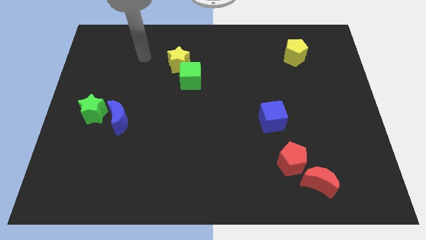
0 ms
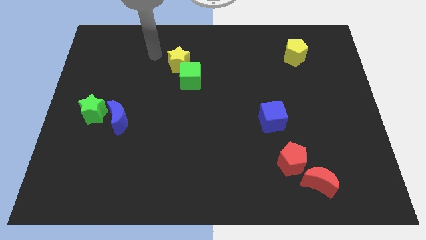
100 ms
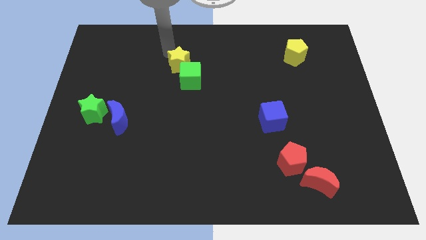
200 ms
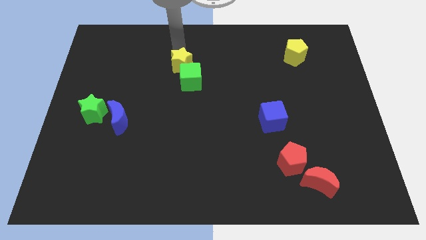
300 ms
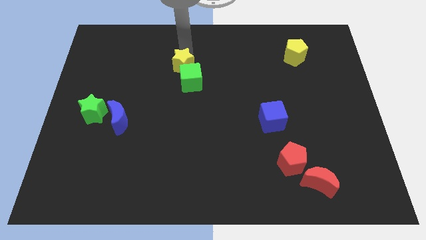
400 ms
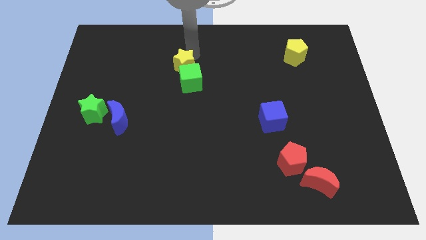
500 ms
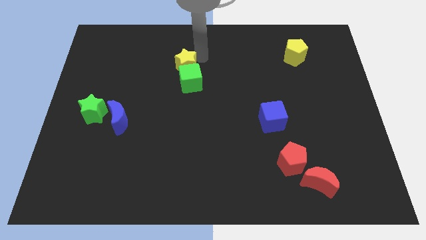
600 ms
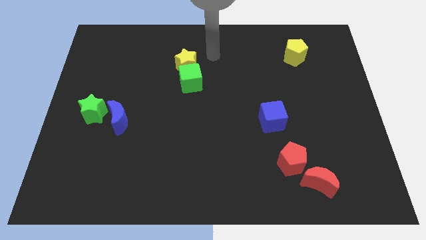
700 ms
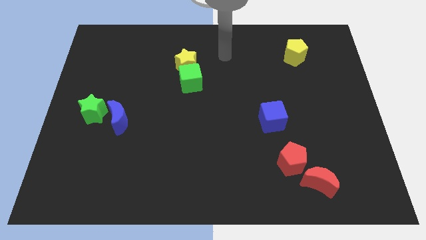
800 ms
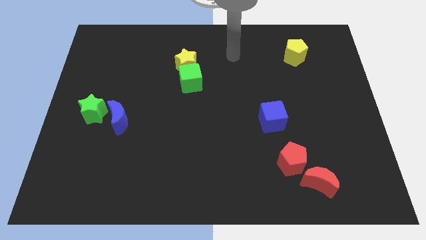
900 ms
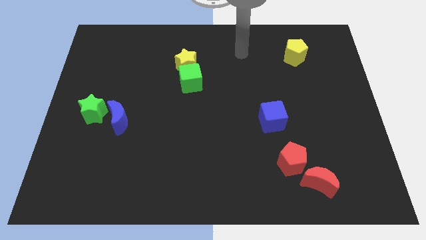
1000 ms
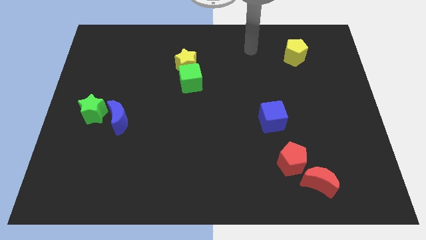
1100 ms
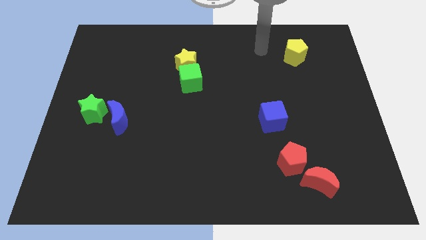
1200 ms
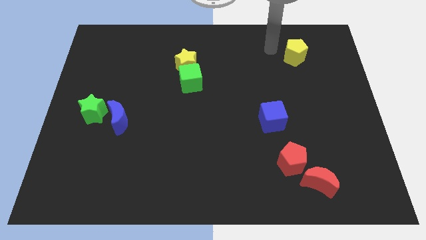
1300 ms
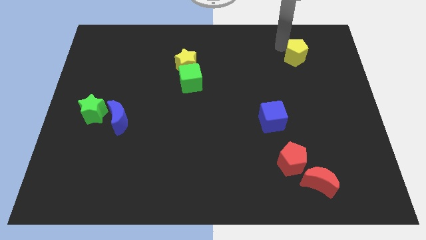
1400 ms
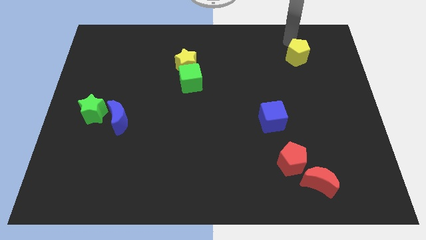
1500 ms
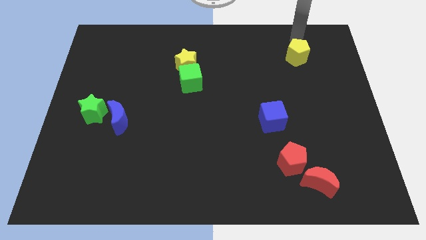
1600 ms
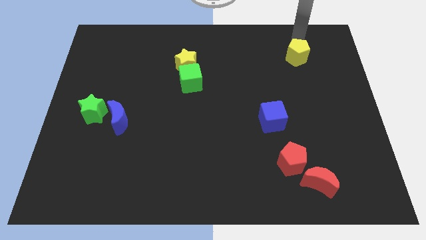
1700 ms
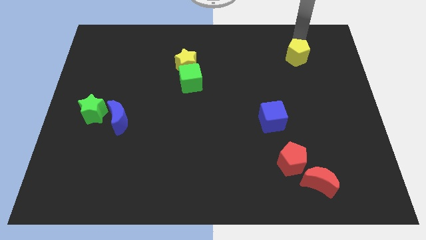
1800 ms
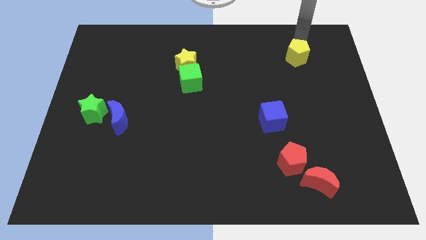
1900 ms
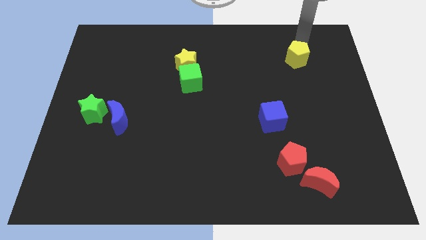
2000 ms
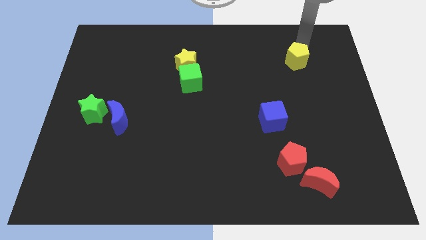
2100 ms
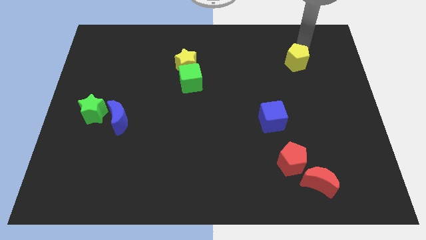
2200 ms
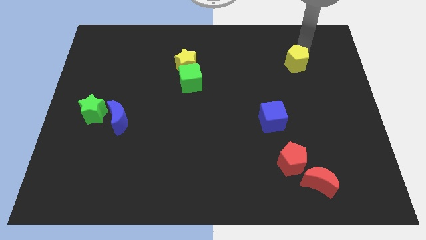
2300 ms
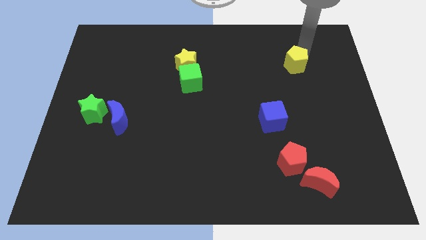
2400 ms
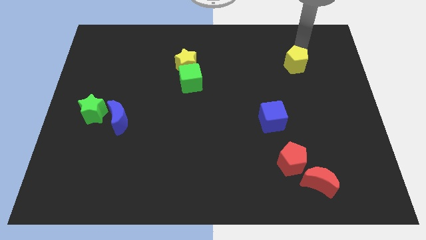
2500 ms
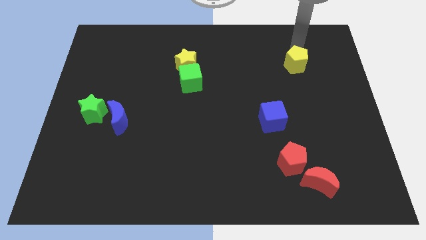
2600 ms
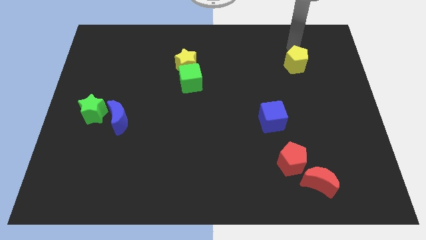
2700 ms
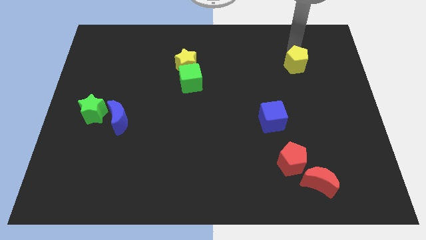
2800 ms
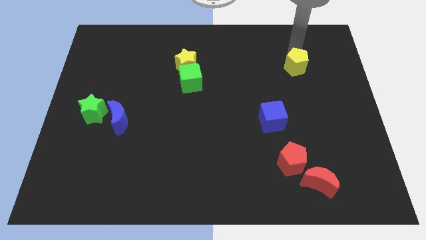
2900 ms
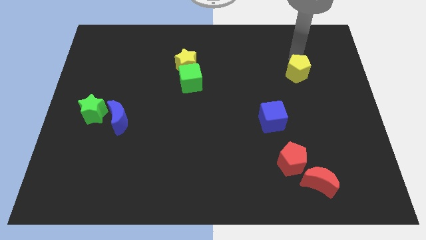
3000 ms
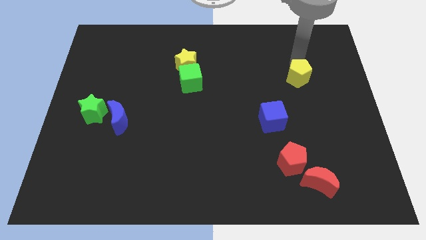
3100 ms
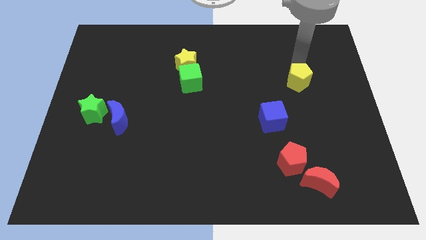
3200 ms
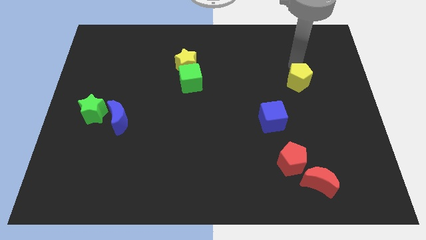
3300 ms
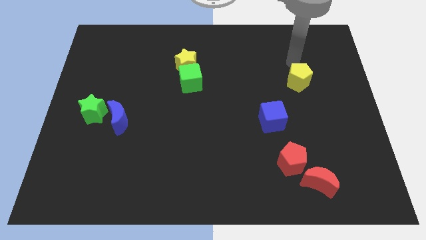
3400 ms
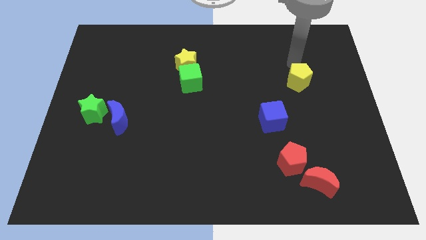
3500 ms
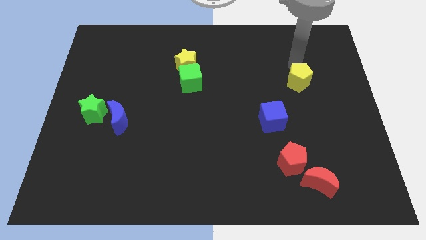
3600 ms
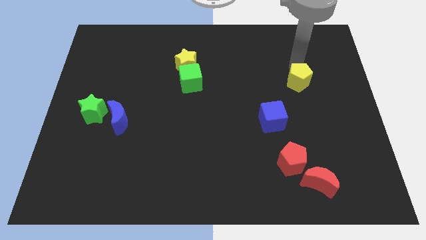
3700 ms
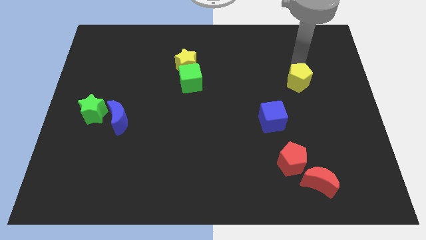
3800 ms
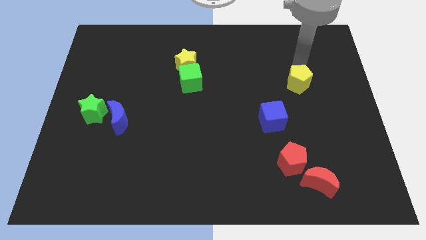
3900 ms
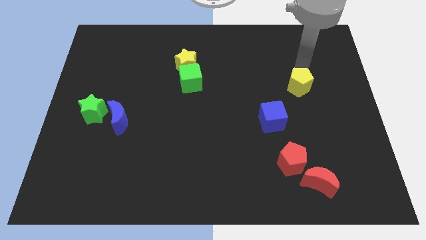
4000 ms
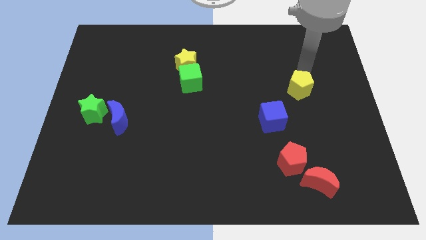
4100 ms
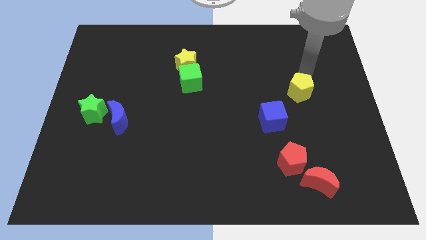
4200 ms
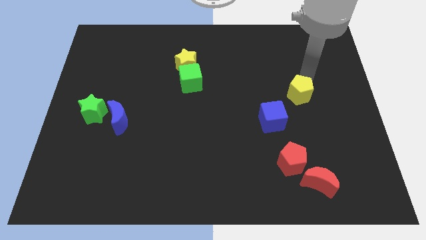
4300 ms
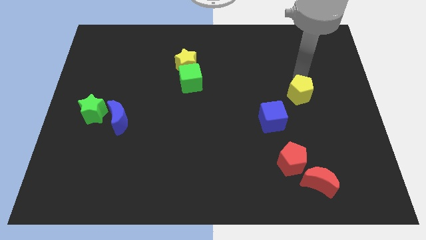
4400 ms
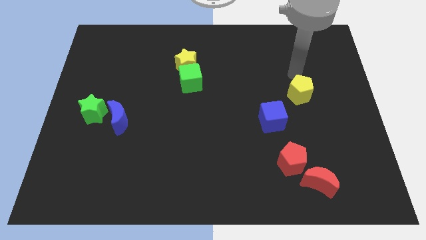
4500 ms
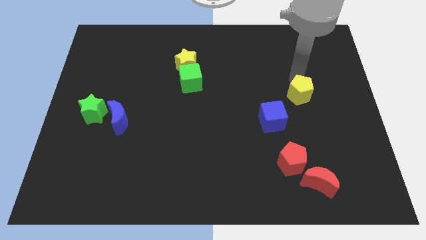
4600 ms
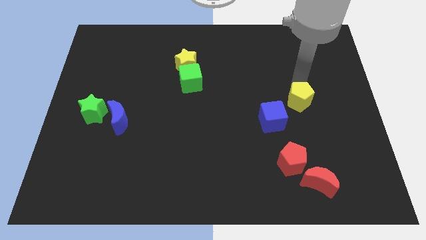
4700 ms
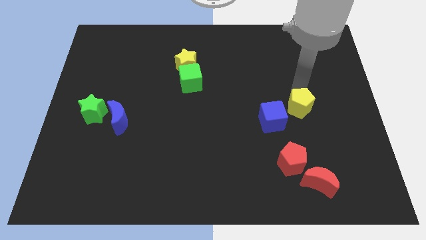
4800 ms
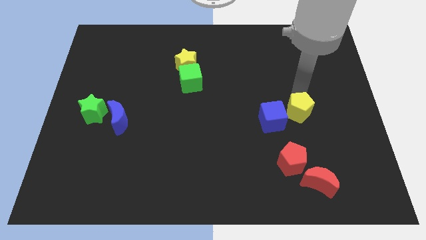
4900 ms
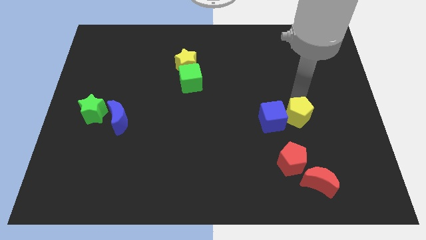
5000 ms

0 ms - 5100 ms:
move the yellow pentagon down

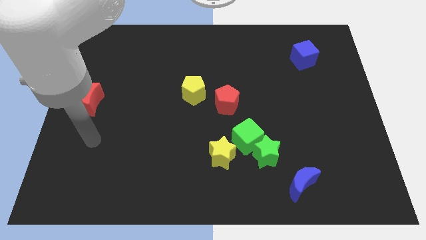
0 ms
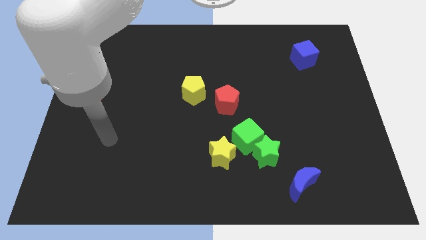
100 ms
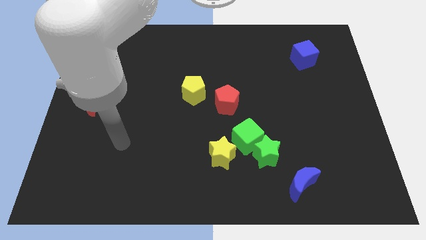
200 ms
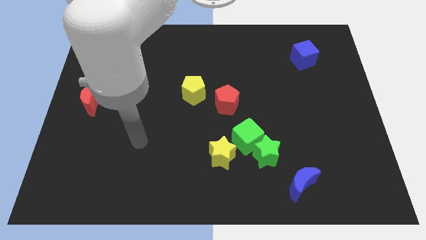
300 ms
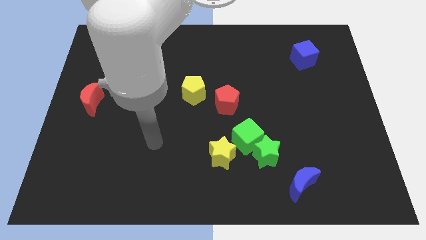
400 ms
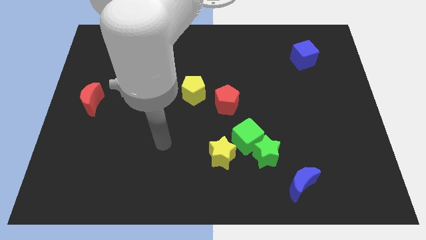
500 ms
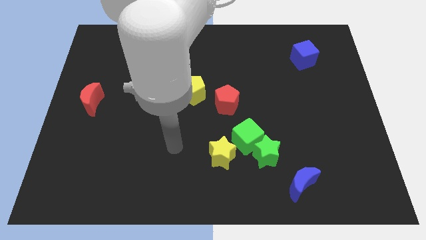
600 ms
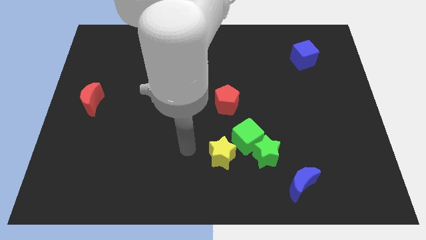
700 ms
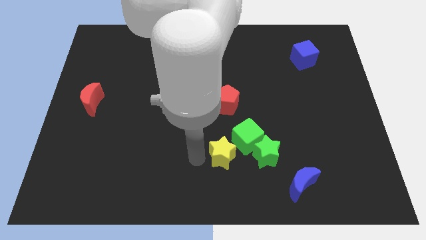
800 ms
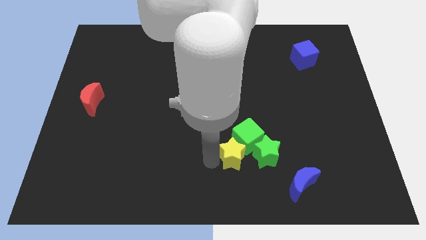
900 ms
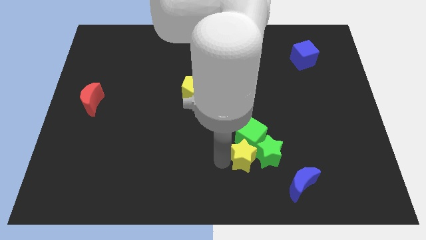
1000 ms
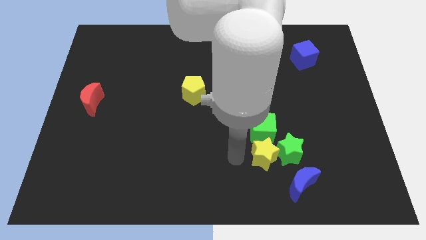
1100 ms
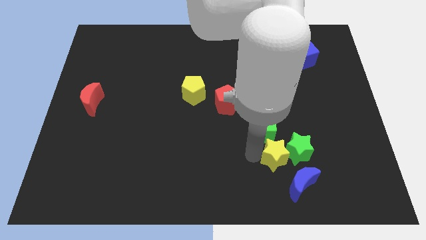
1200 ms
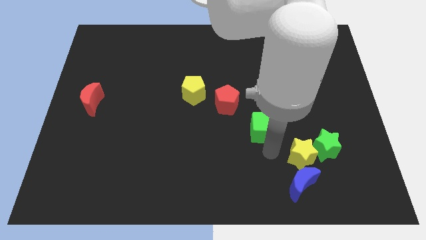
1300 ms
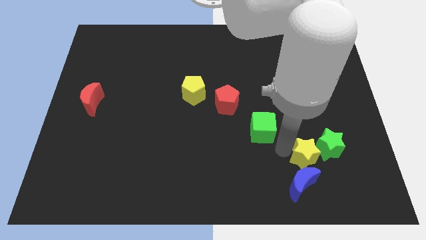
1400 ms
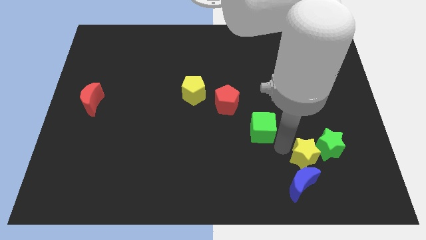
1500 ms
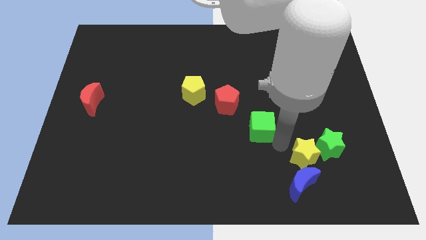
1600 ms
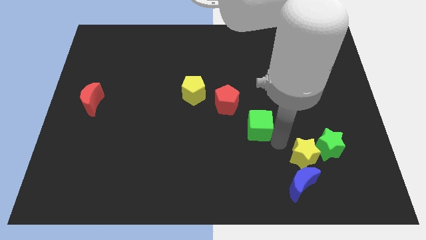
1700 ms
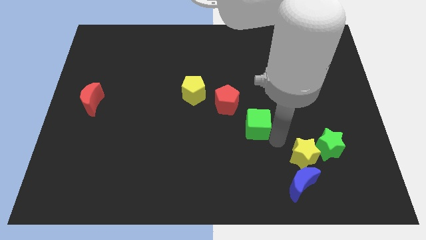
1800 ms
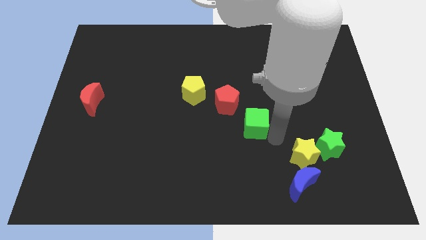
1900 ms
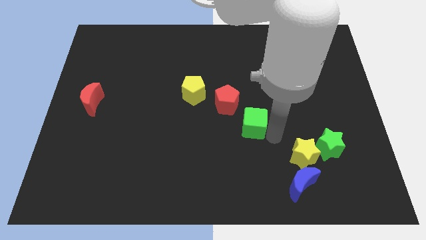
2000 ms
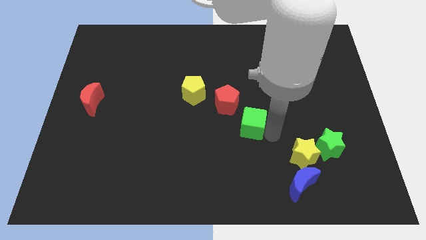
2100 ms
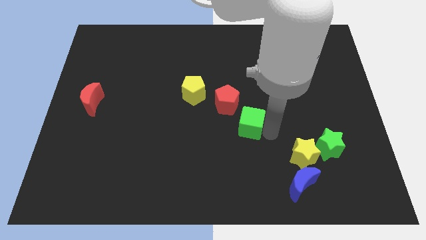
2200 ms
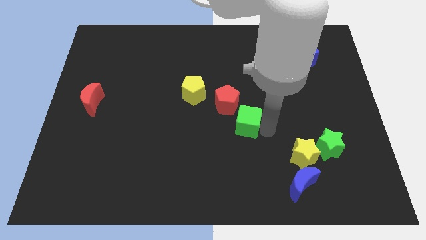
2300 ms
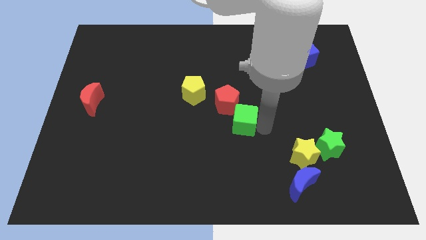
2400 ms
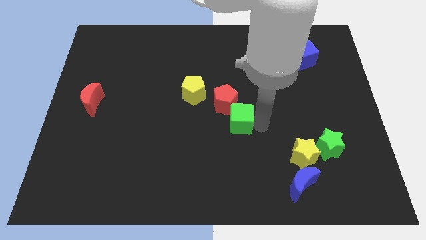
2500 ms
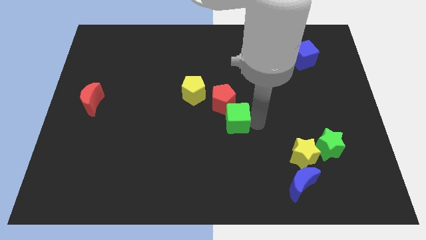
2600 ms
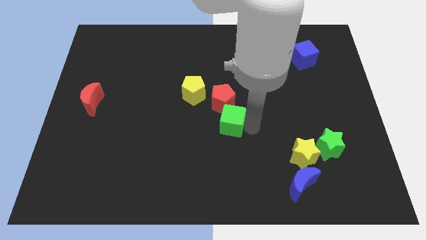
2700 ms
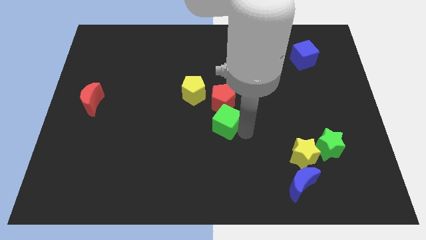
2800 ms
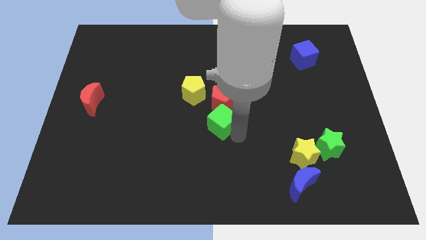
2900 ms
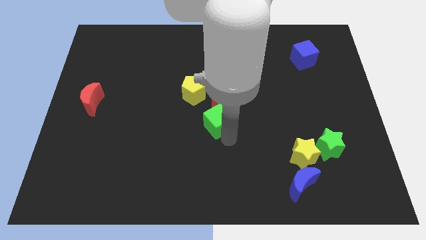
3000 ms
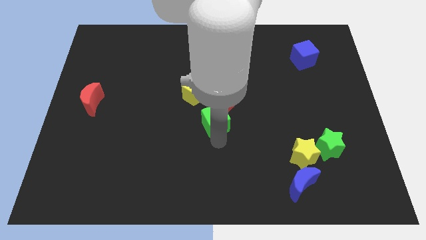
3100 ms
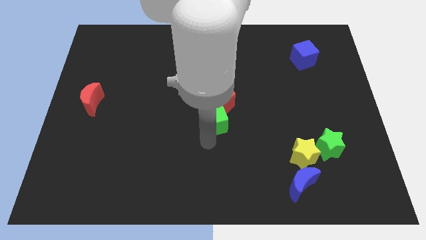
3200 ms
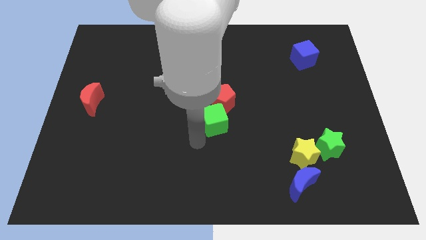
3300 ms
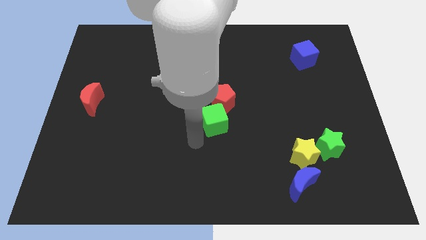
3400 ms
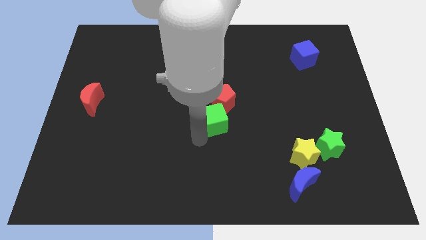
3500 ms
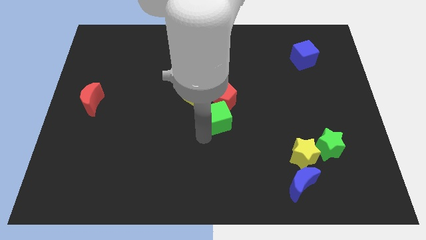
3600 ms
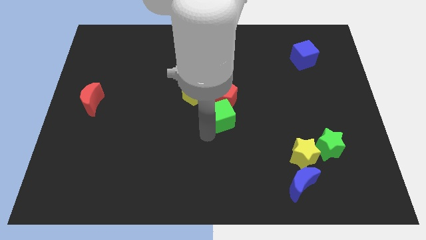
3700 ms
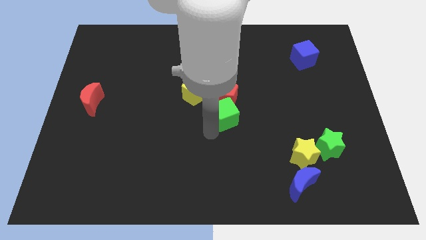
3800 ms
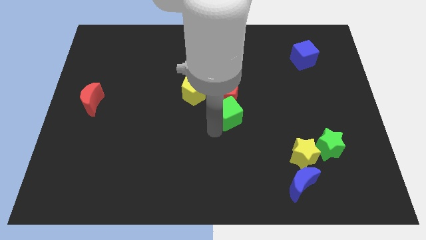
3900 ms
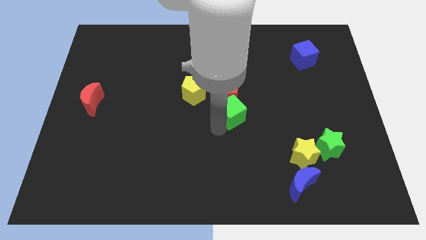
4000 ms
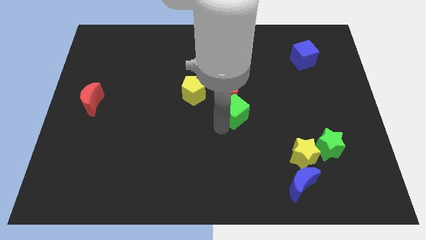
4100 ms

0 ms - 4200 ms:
move the green cube a little bit up
